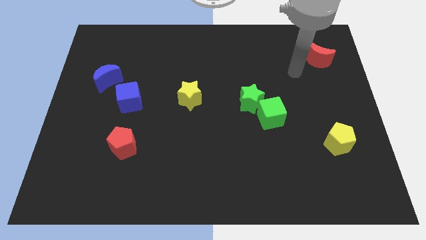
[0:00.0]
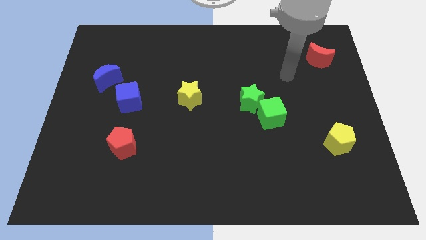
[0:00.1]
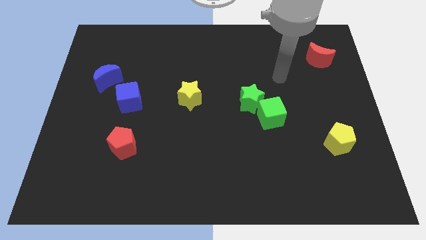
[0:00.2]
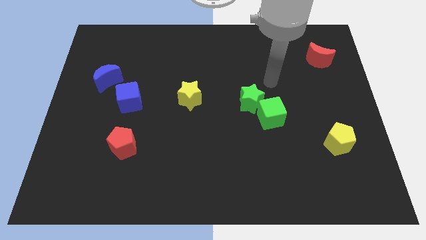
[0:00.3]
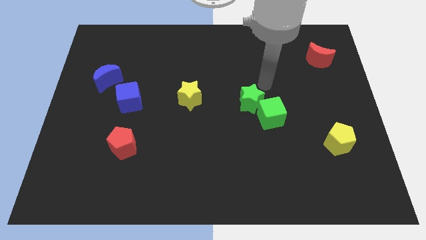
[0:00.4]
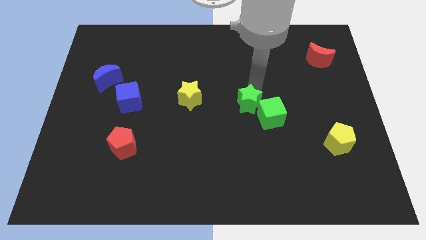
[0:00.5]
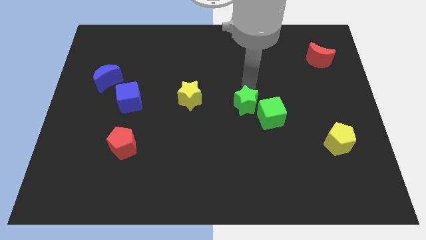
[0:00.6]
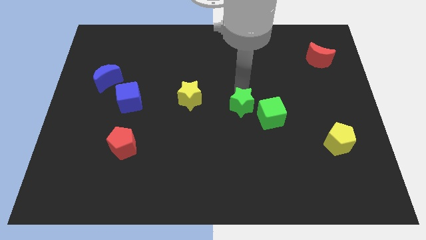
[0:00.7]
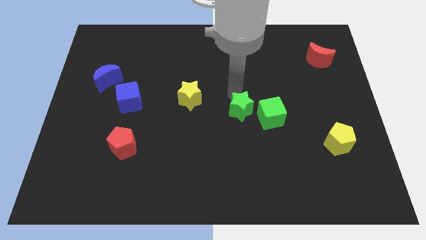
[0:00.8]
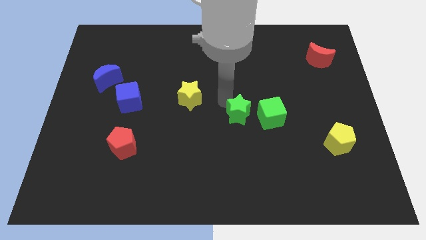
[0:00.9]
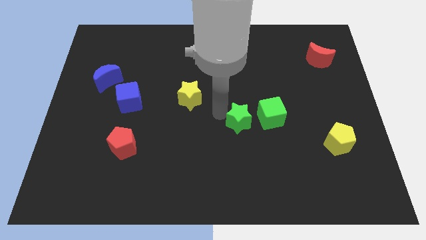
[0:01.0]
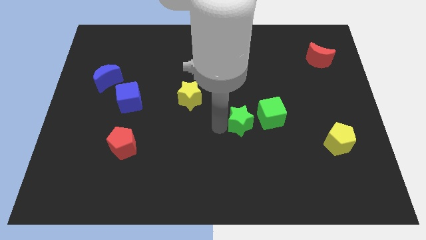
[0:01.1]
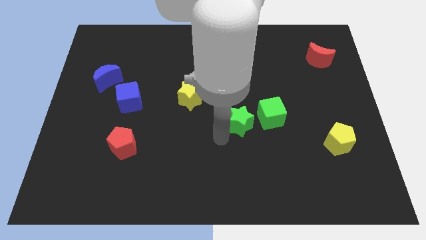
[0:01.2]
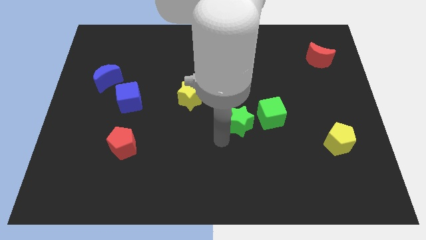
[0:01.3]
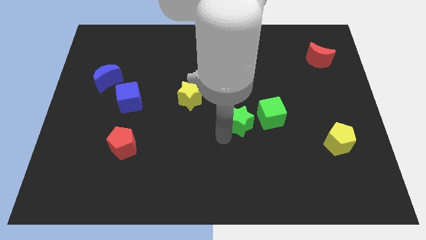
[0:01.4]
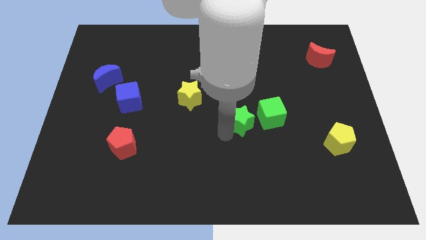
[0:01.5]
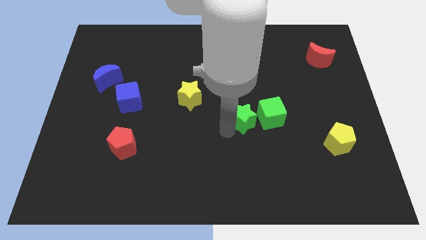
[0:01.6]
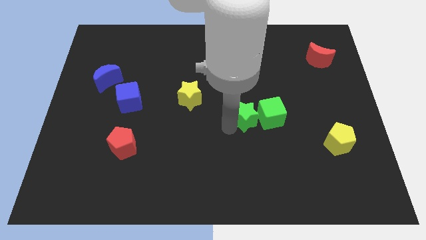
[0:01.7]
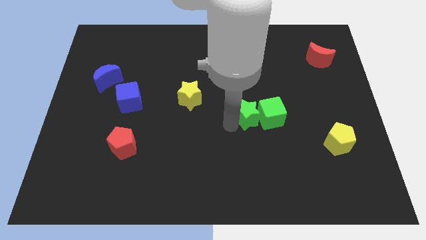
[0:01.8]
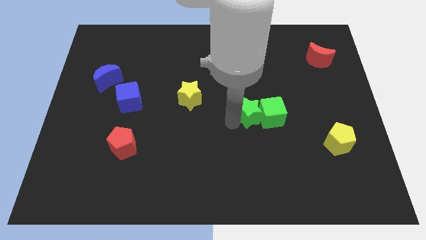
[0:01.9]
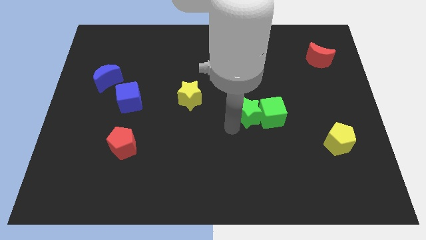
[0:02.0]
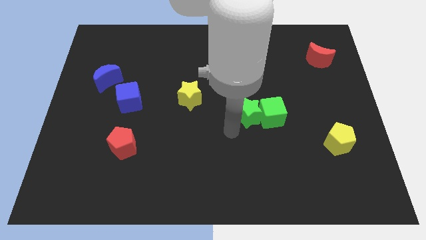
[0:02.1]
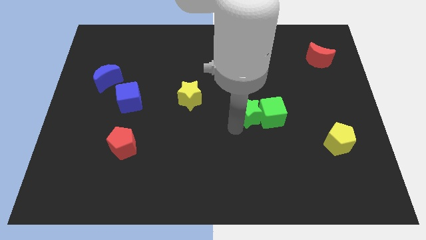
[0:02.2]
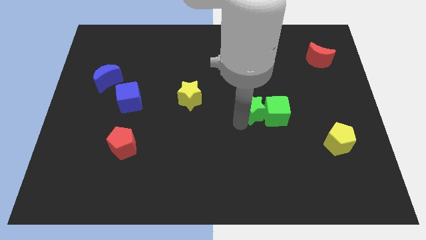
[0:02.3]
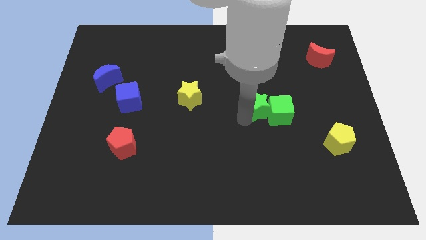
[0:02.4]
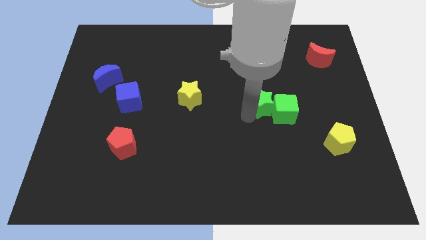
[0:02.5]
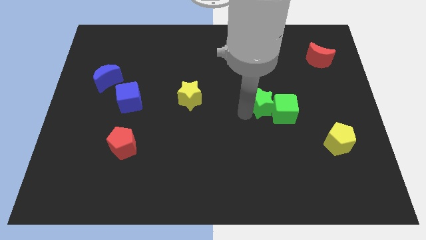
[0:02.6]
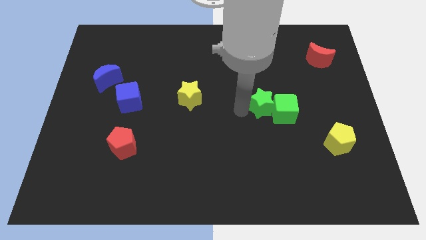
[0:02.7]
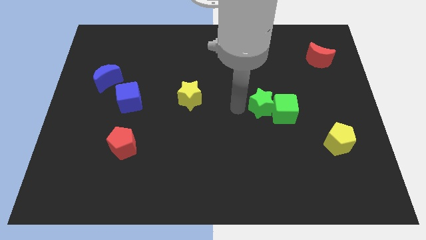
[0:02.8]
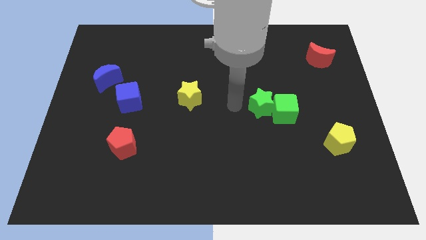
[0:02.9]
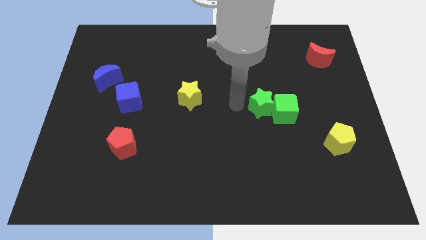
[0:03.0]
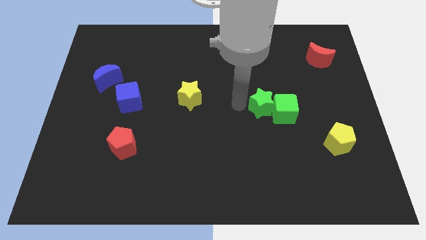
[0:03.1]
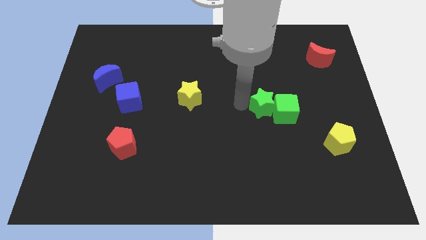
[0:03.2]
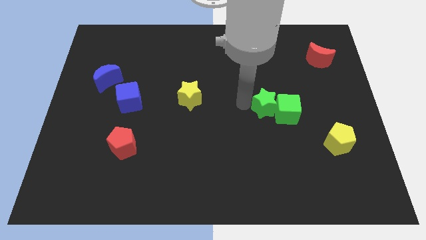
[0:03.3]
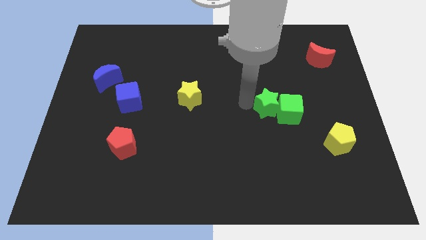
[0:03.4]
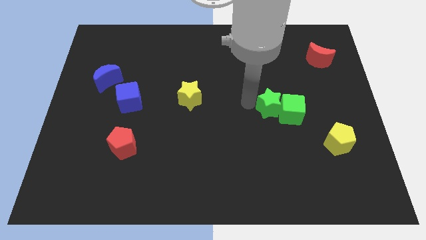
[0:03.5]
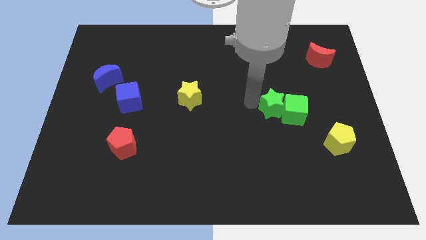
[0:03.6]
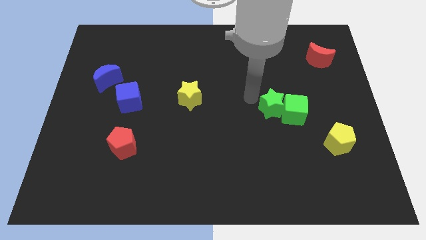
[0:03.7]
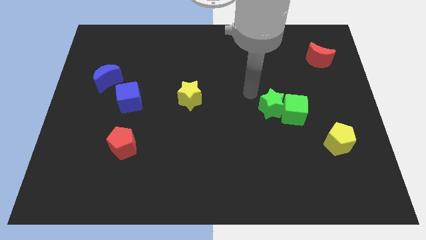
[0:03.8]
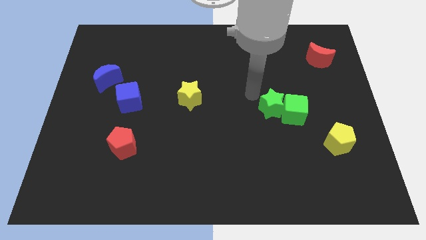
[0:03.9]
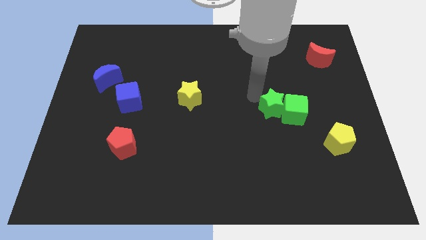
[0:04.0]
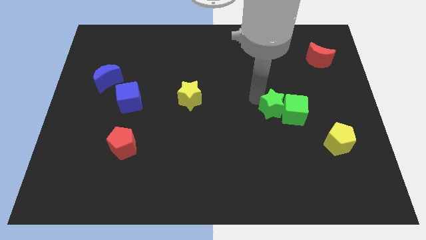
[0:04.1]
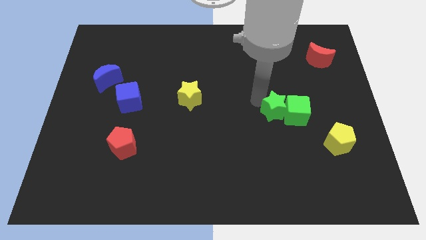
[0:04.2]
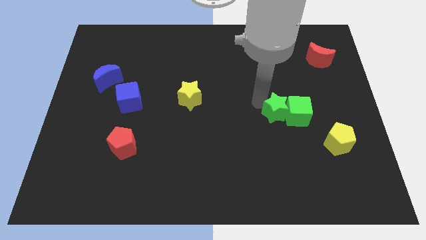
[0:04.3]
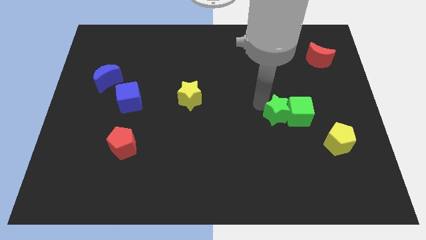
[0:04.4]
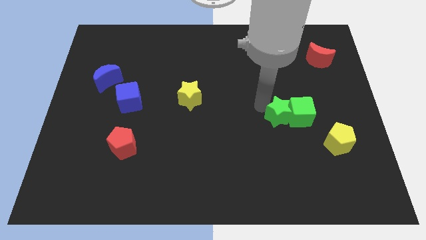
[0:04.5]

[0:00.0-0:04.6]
slide the green star diagonally down and to the right a bit

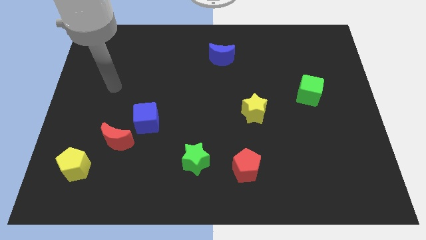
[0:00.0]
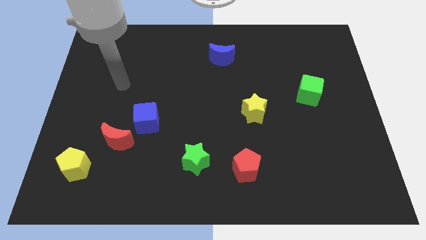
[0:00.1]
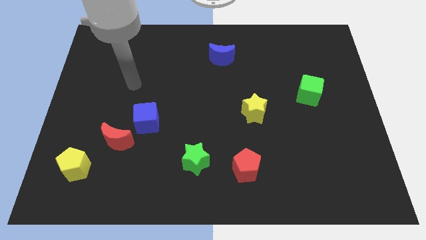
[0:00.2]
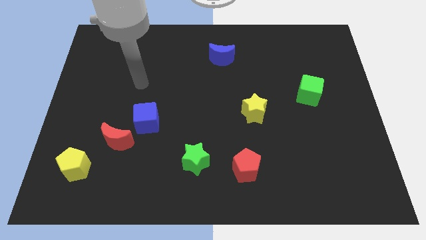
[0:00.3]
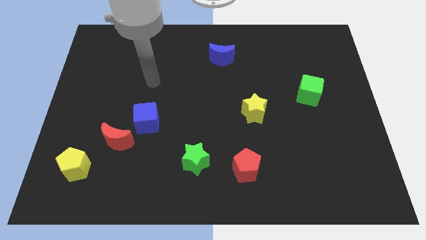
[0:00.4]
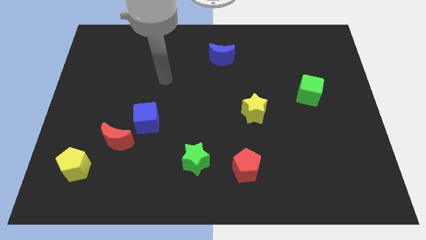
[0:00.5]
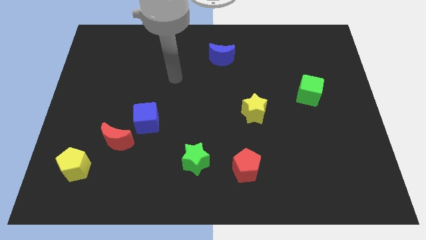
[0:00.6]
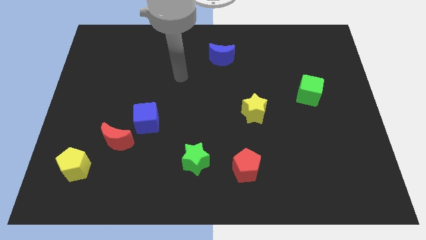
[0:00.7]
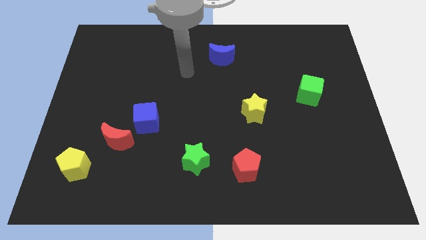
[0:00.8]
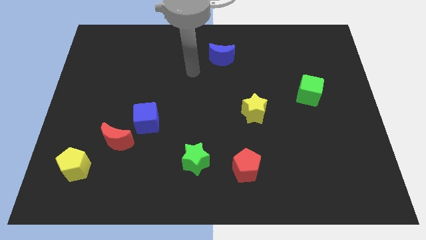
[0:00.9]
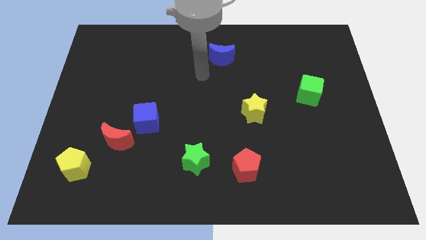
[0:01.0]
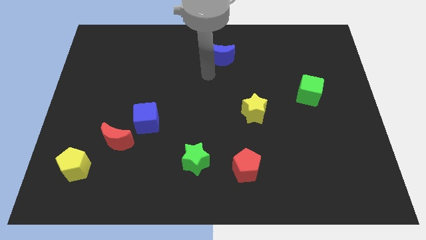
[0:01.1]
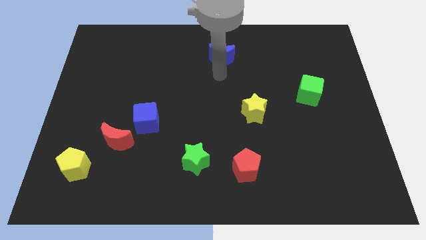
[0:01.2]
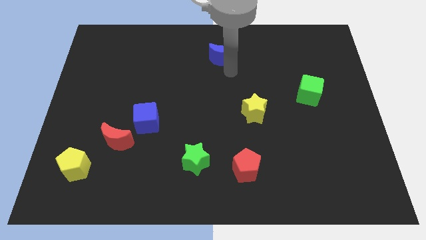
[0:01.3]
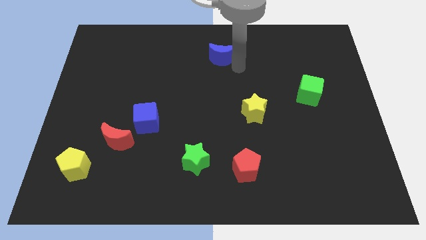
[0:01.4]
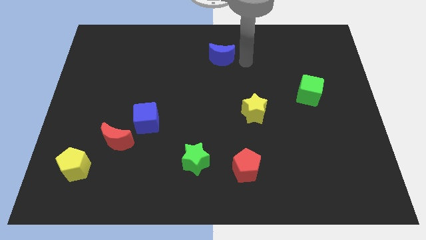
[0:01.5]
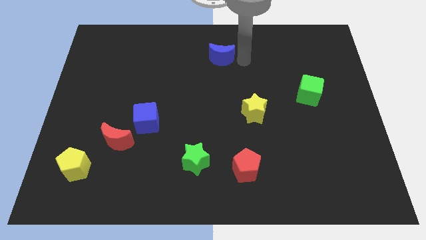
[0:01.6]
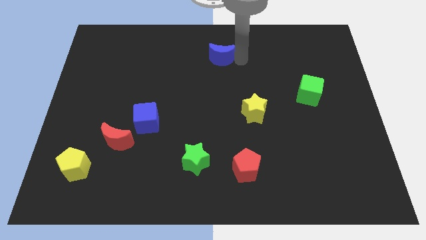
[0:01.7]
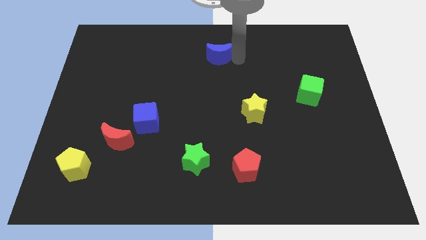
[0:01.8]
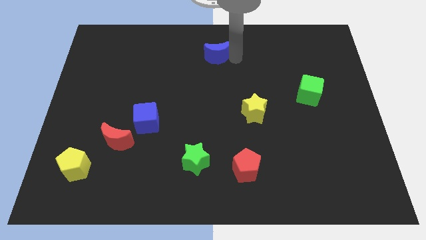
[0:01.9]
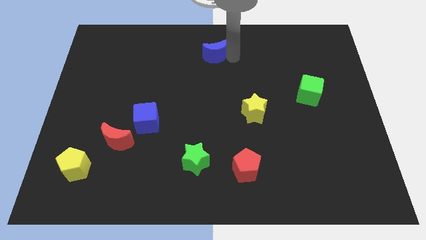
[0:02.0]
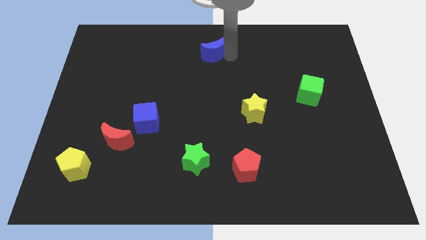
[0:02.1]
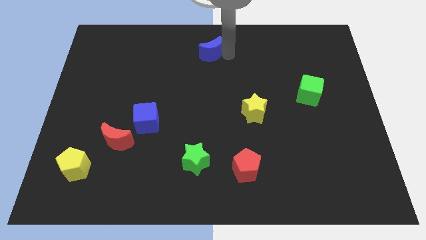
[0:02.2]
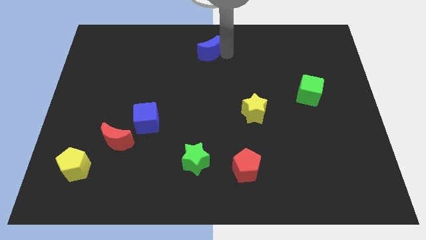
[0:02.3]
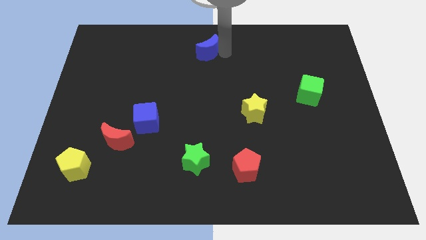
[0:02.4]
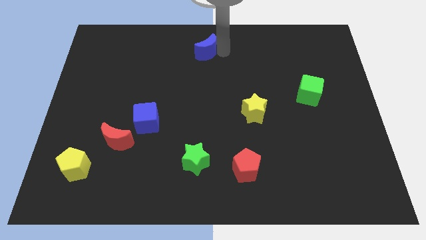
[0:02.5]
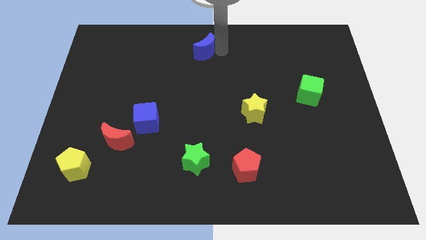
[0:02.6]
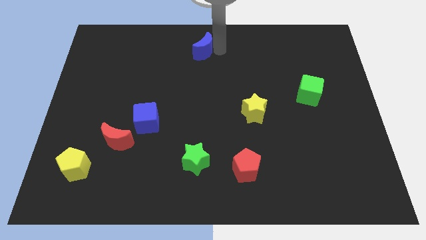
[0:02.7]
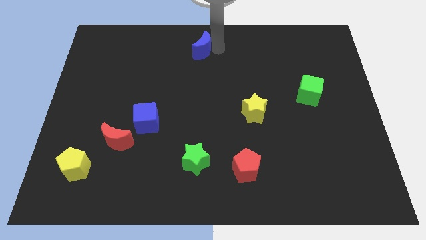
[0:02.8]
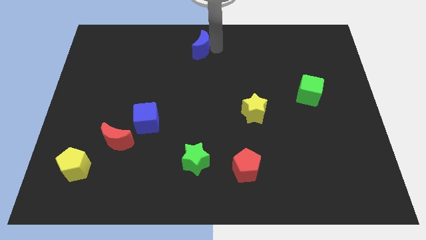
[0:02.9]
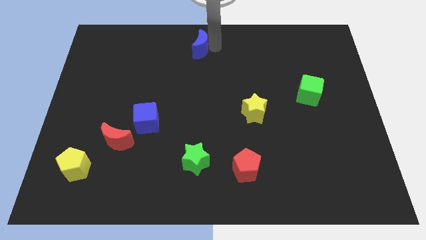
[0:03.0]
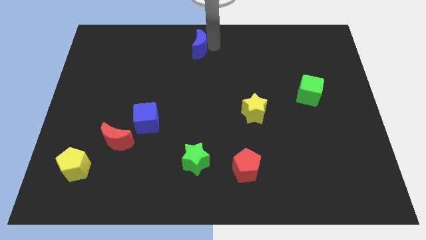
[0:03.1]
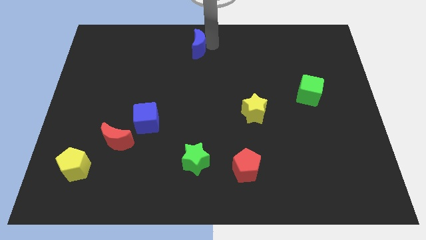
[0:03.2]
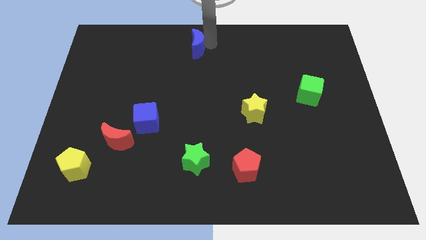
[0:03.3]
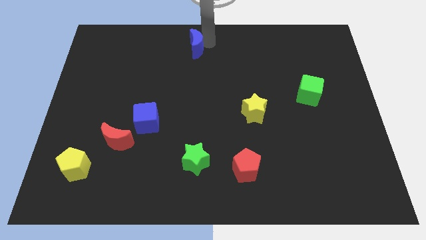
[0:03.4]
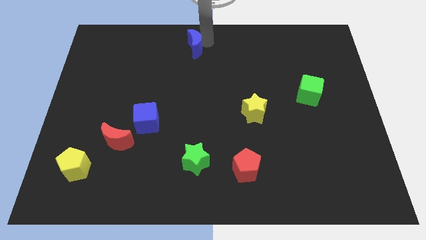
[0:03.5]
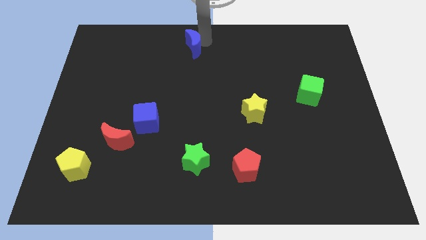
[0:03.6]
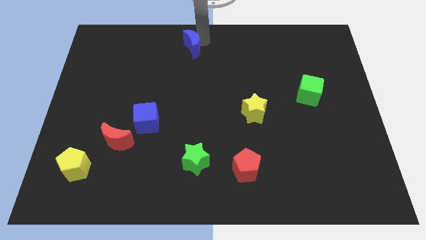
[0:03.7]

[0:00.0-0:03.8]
slightly move the blue moon left
